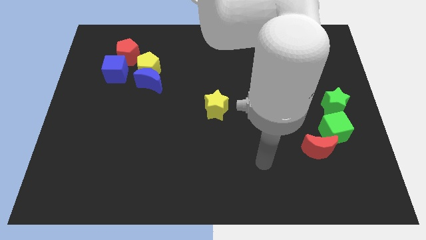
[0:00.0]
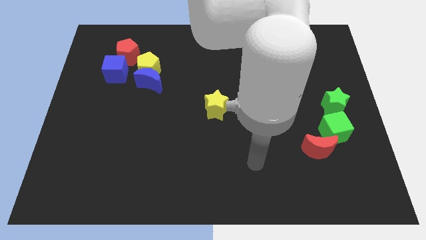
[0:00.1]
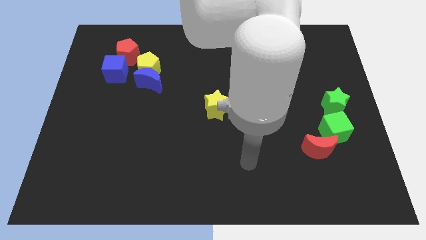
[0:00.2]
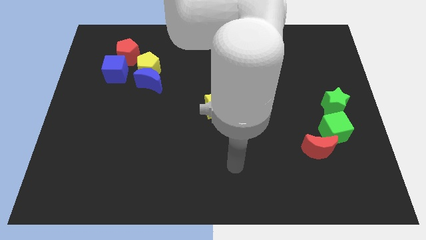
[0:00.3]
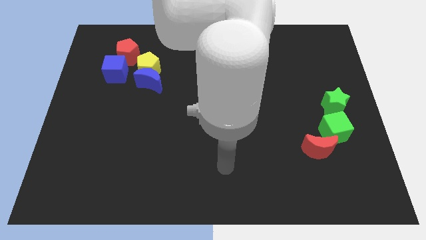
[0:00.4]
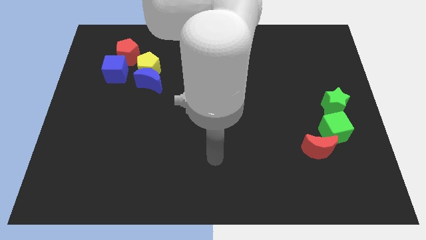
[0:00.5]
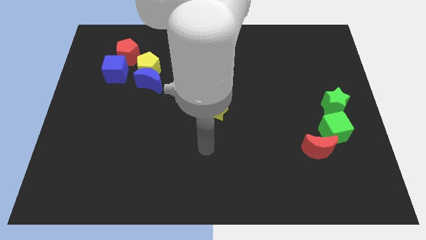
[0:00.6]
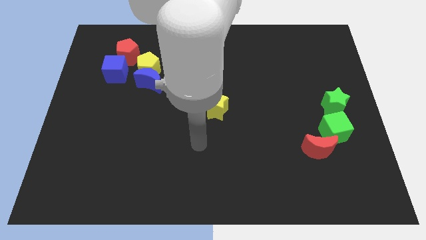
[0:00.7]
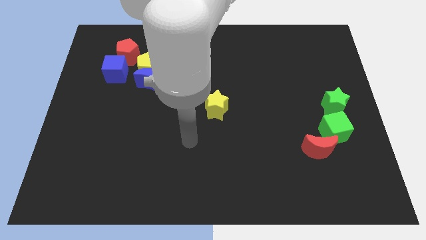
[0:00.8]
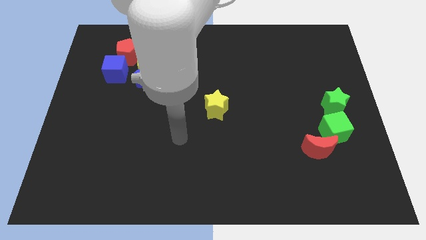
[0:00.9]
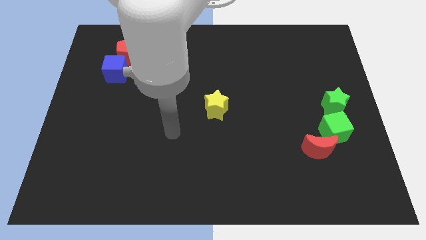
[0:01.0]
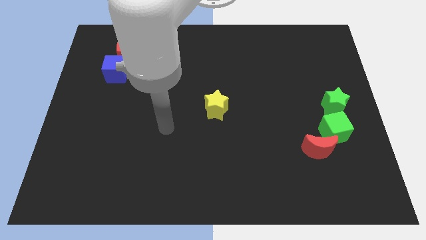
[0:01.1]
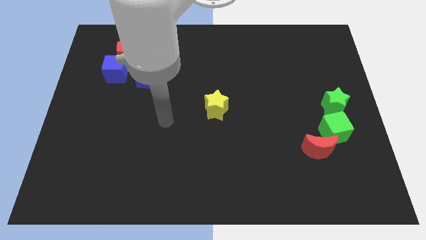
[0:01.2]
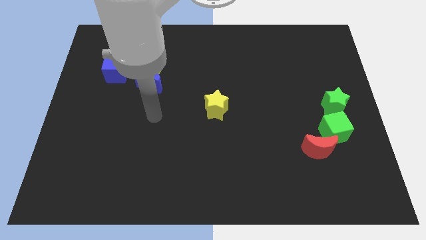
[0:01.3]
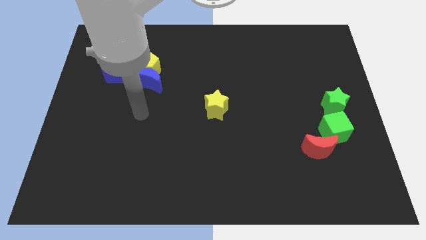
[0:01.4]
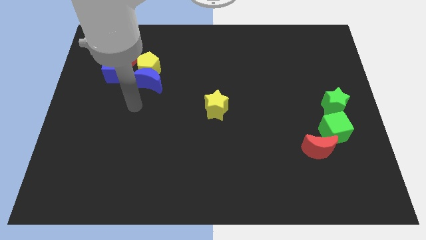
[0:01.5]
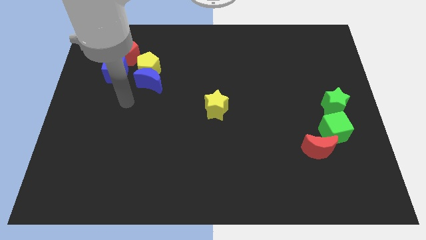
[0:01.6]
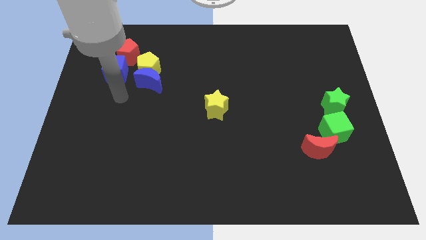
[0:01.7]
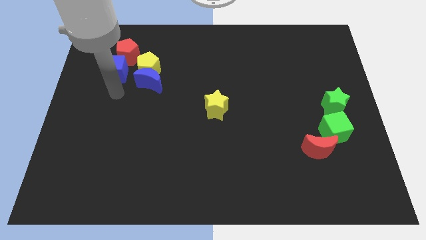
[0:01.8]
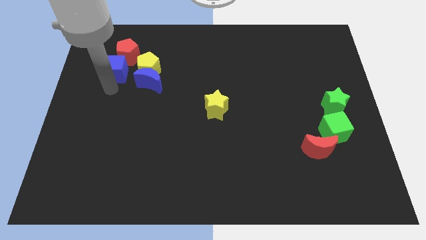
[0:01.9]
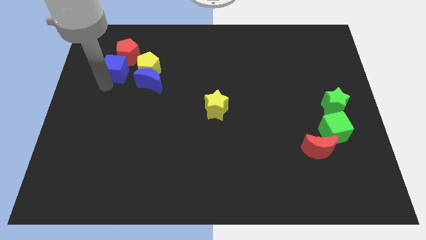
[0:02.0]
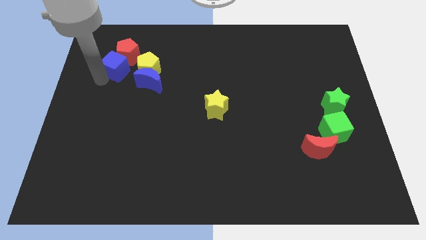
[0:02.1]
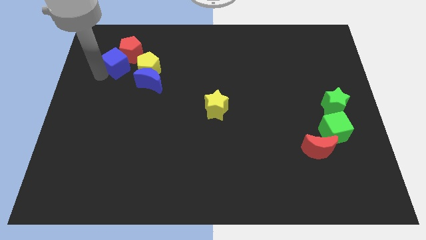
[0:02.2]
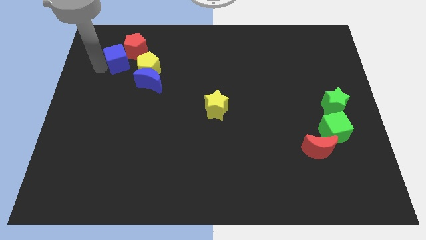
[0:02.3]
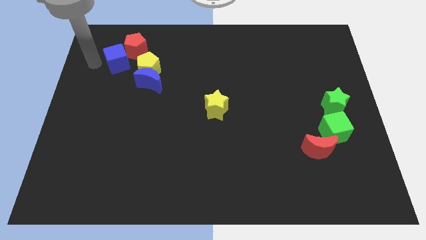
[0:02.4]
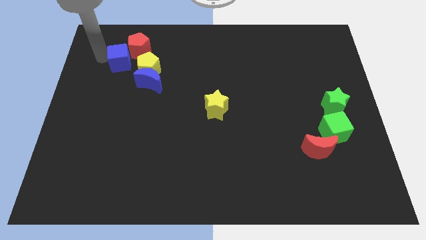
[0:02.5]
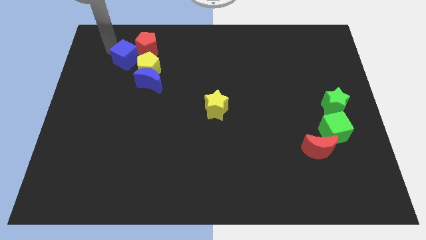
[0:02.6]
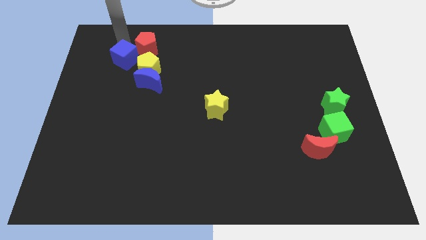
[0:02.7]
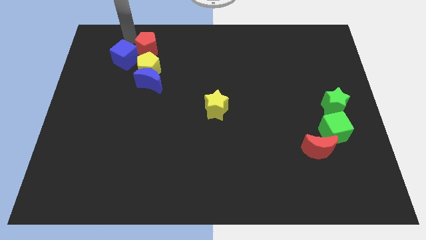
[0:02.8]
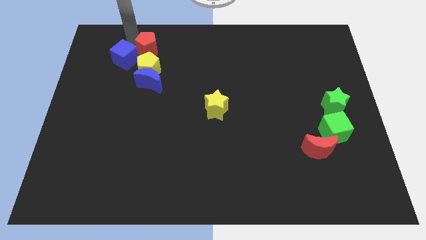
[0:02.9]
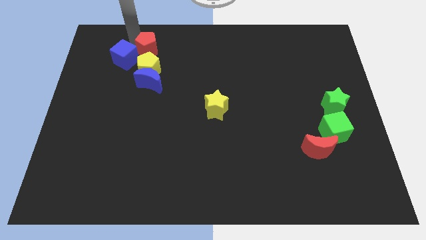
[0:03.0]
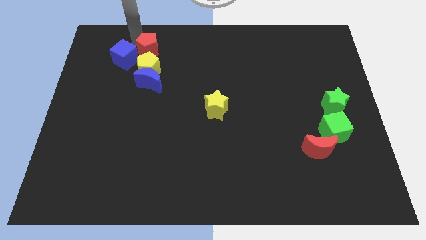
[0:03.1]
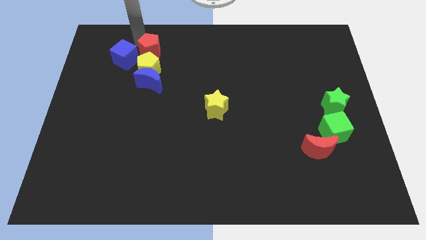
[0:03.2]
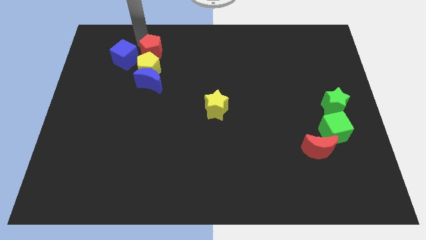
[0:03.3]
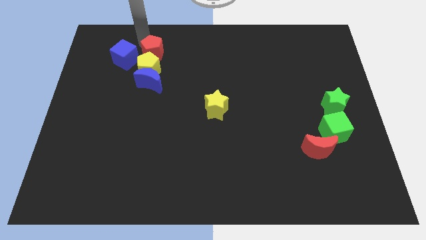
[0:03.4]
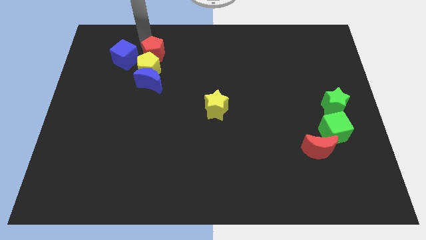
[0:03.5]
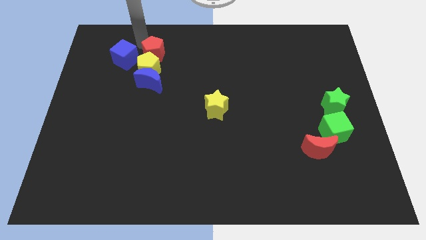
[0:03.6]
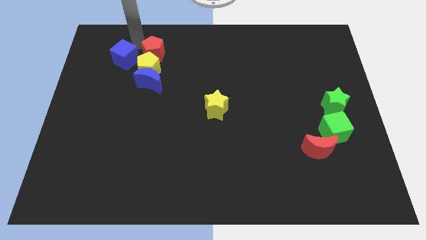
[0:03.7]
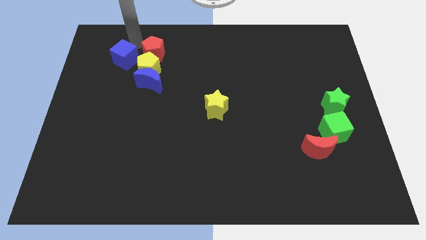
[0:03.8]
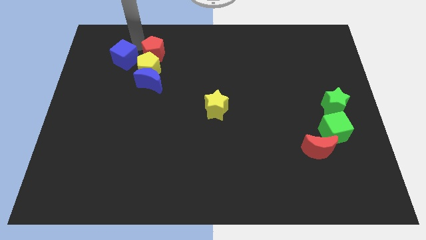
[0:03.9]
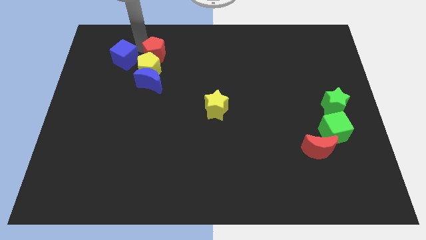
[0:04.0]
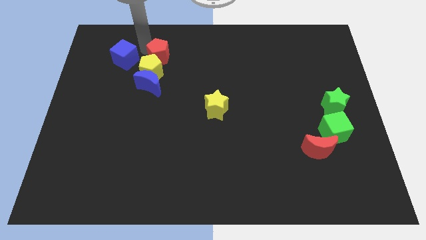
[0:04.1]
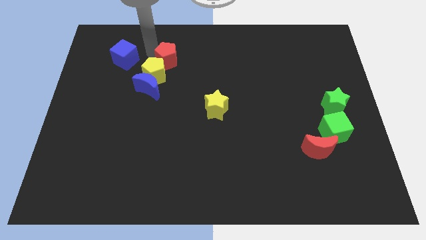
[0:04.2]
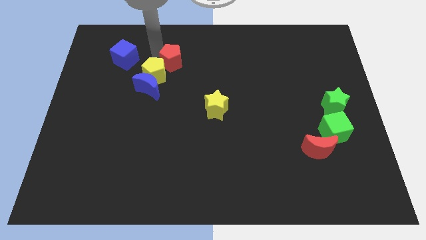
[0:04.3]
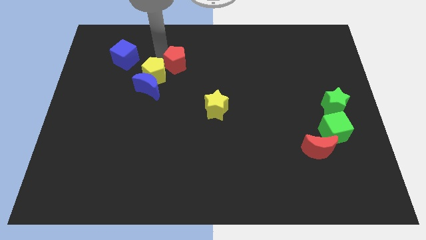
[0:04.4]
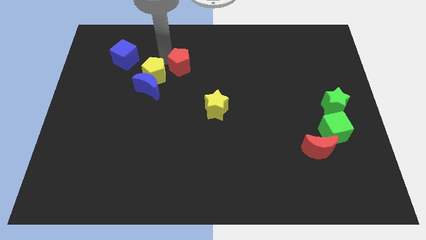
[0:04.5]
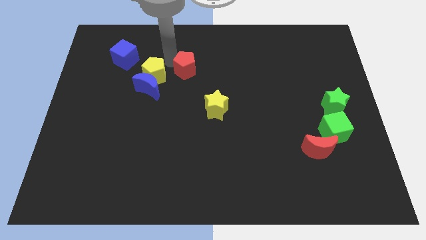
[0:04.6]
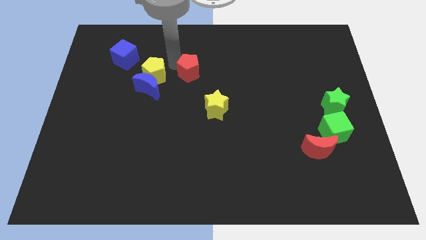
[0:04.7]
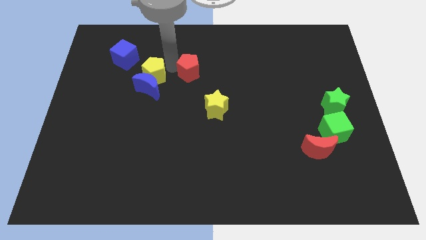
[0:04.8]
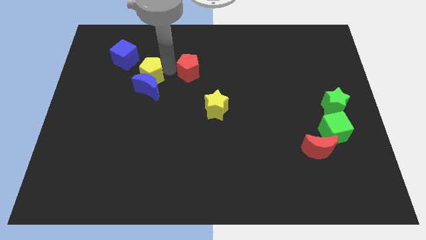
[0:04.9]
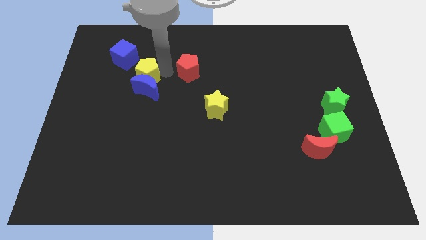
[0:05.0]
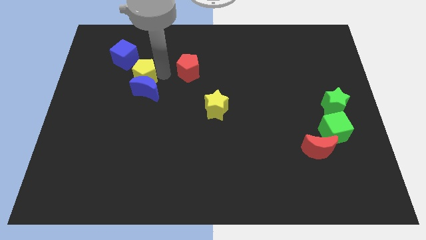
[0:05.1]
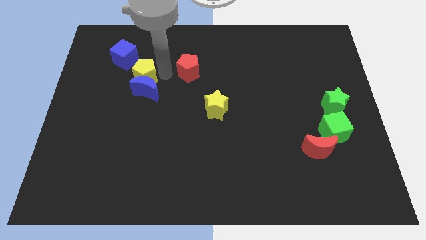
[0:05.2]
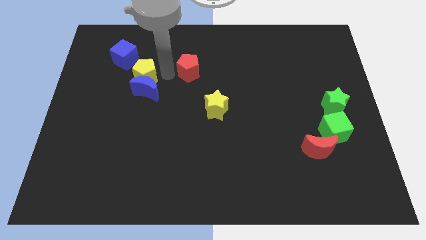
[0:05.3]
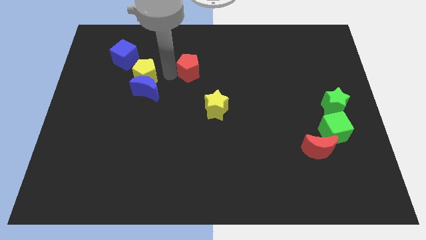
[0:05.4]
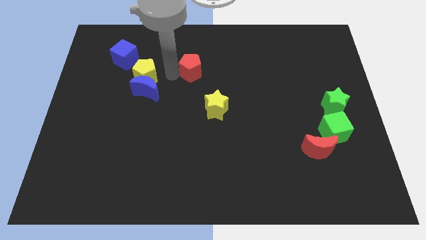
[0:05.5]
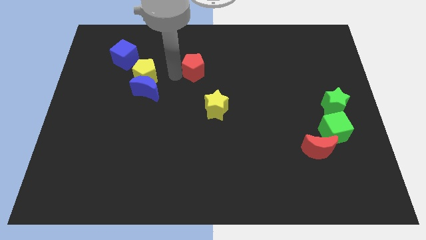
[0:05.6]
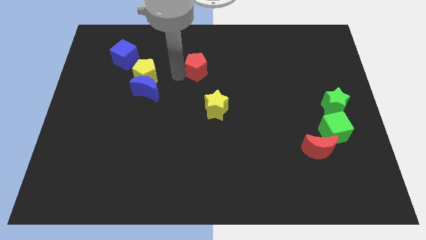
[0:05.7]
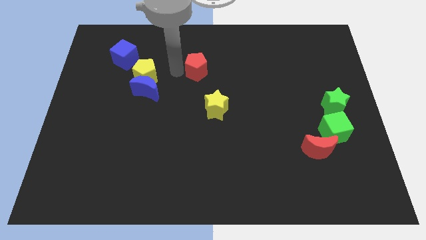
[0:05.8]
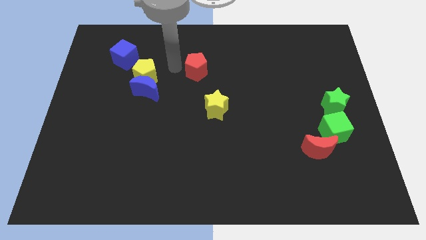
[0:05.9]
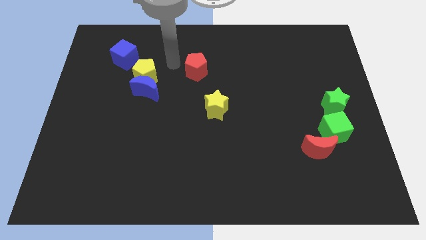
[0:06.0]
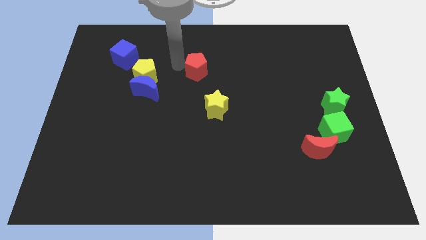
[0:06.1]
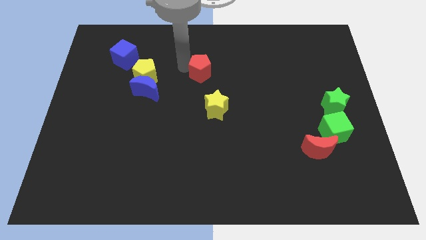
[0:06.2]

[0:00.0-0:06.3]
slide the red pentagon above the yellow star
